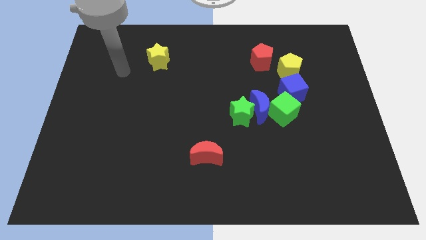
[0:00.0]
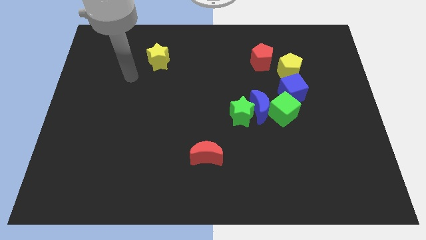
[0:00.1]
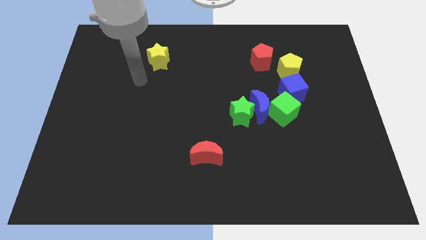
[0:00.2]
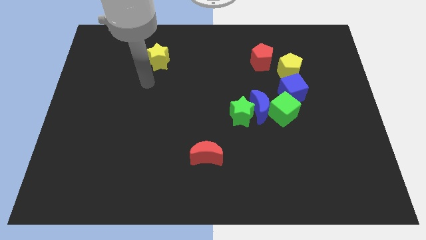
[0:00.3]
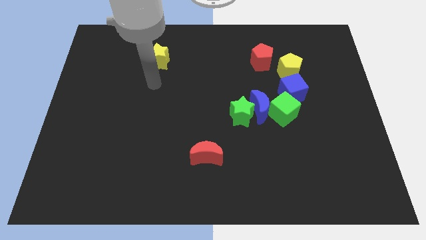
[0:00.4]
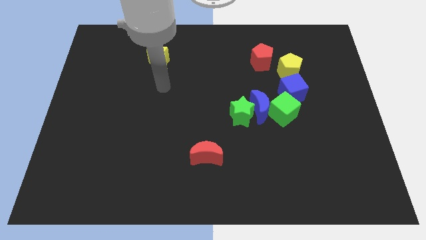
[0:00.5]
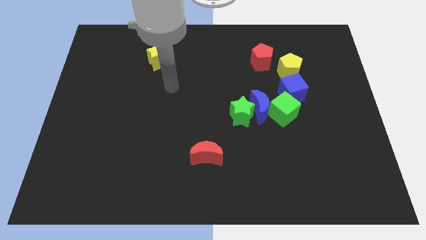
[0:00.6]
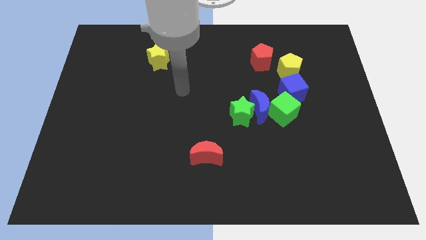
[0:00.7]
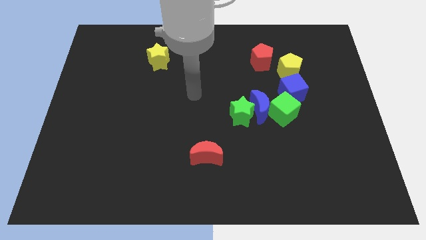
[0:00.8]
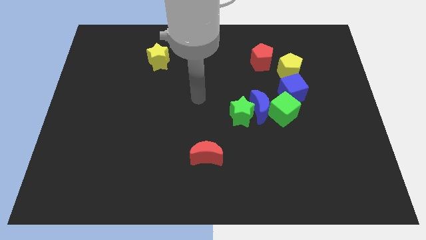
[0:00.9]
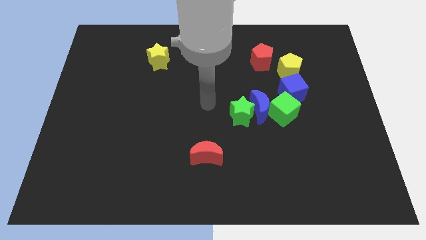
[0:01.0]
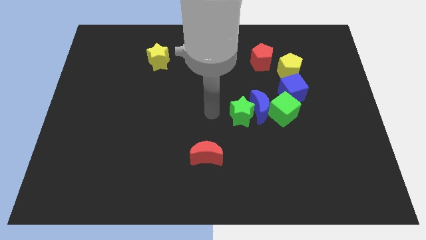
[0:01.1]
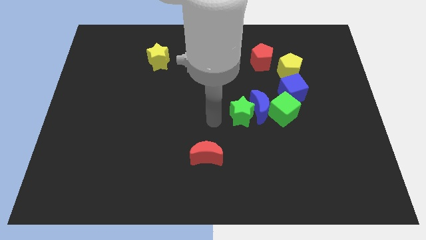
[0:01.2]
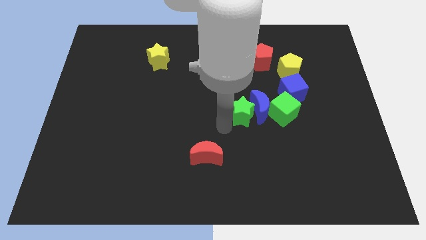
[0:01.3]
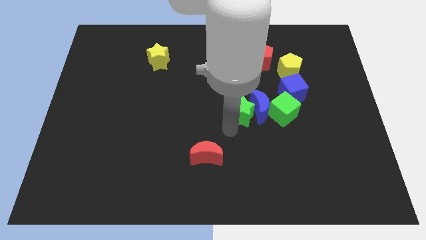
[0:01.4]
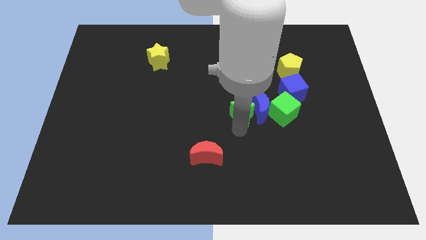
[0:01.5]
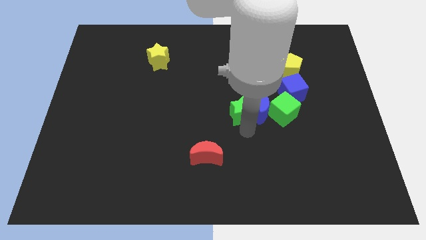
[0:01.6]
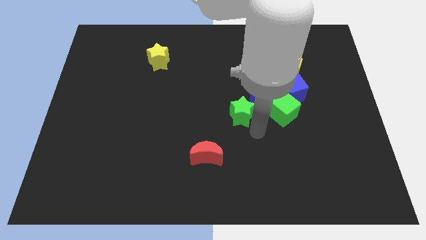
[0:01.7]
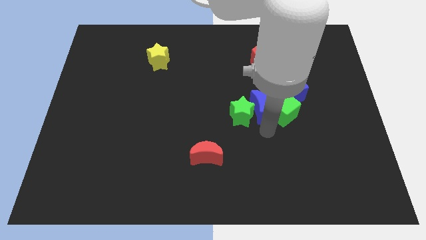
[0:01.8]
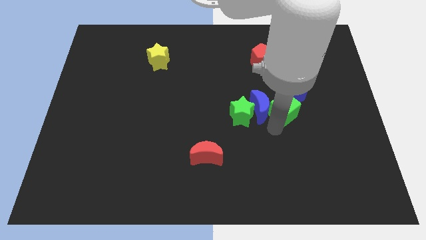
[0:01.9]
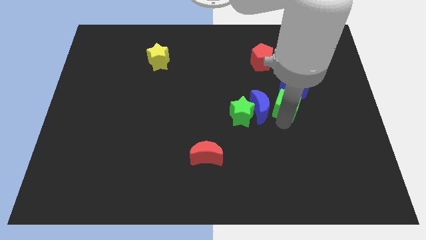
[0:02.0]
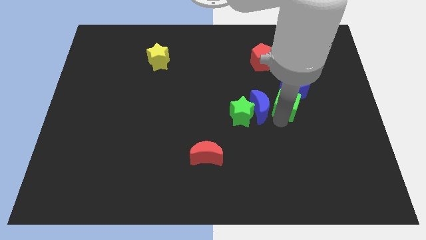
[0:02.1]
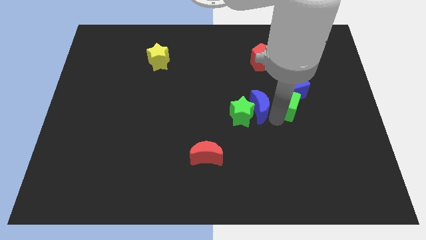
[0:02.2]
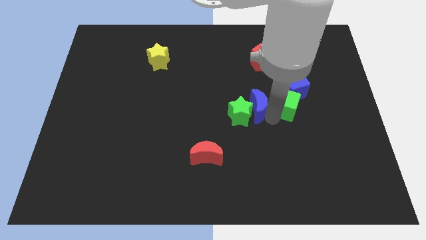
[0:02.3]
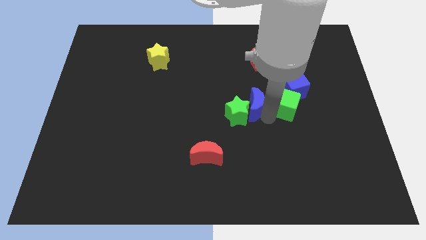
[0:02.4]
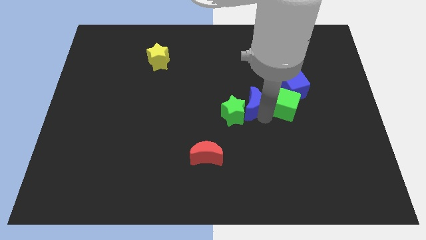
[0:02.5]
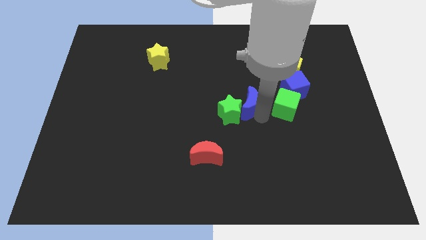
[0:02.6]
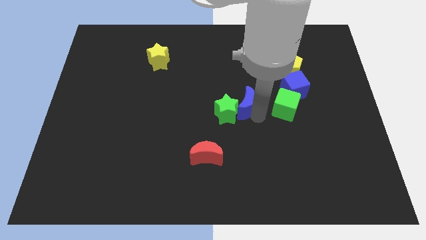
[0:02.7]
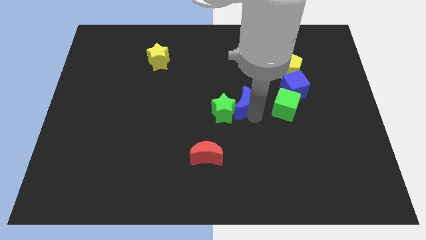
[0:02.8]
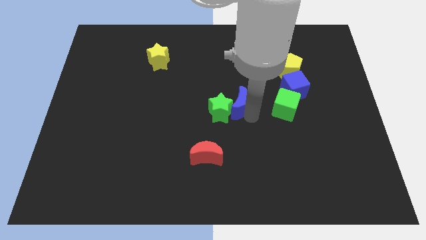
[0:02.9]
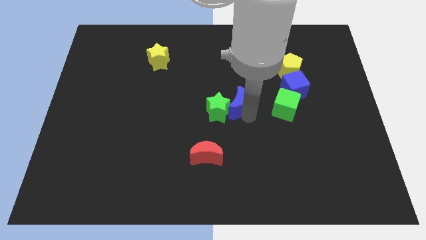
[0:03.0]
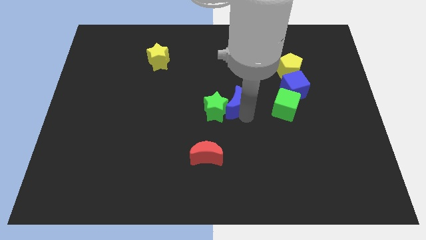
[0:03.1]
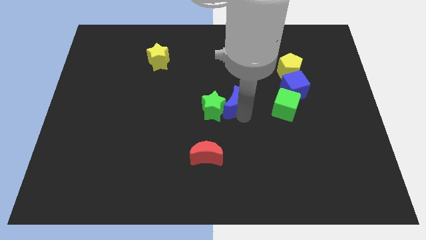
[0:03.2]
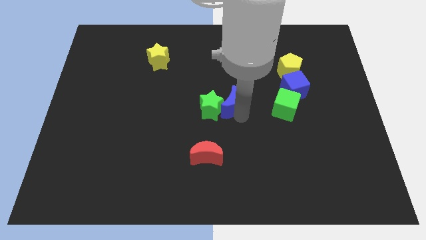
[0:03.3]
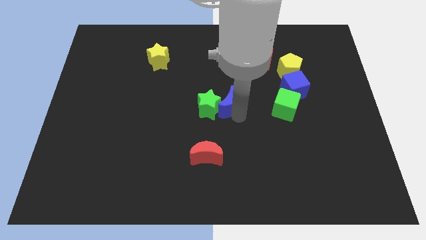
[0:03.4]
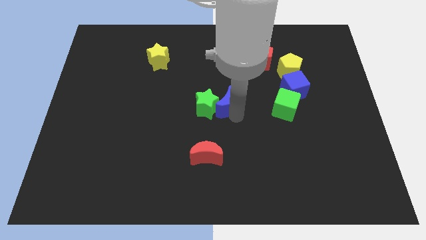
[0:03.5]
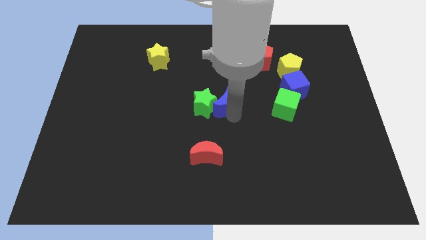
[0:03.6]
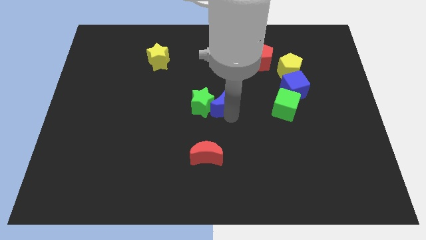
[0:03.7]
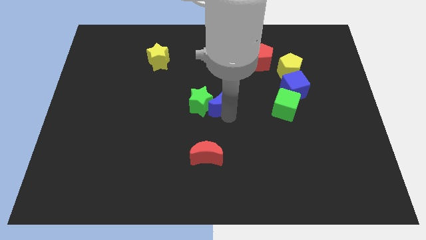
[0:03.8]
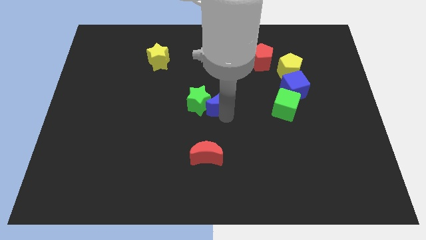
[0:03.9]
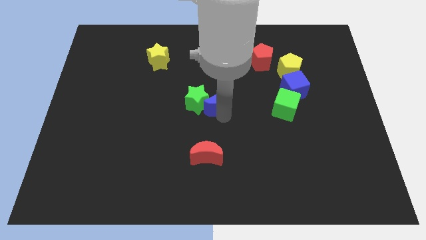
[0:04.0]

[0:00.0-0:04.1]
move the blue moon away from the group of blocks

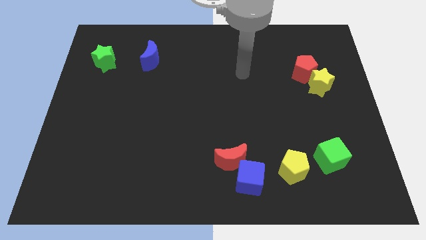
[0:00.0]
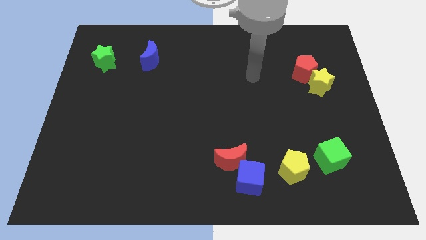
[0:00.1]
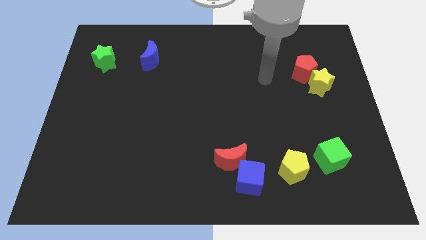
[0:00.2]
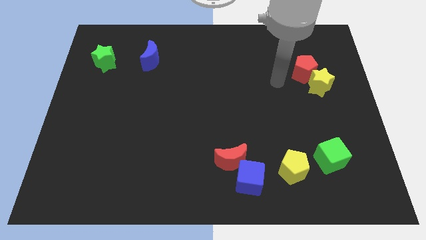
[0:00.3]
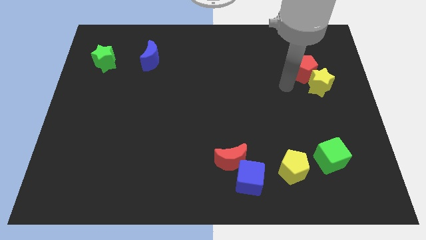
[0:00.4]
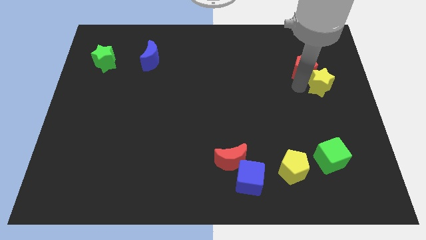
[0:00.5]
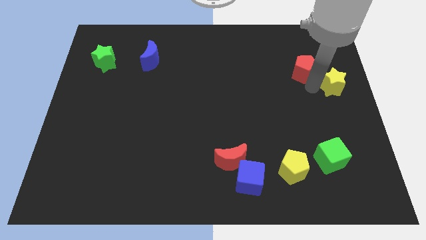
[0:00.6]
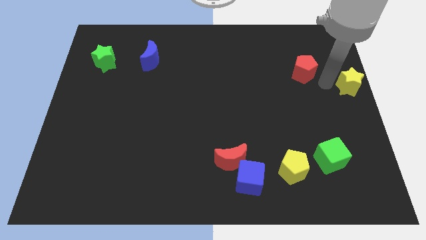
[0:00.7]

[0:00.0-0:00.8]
move the red pentagon away from the yellow star

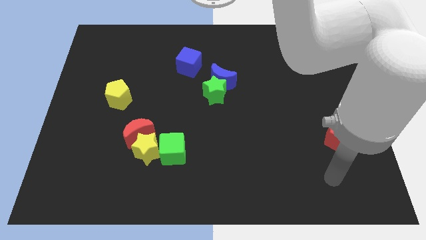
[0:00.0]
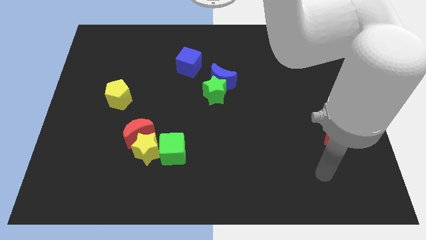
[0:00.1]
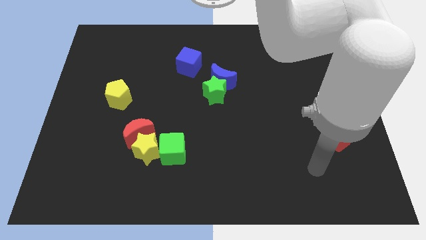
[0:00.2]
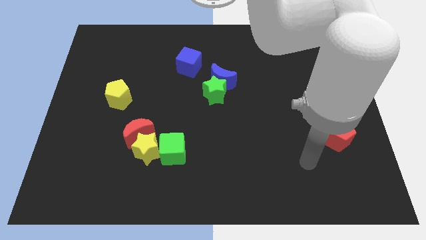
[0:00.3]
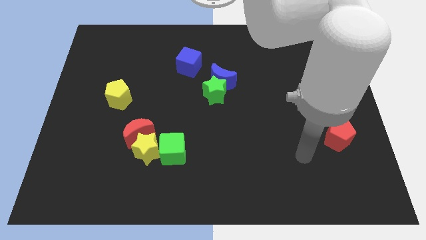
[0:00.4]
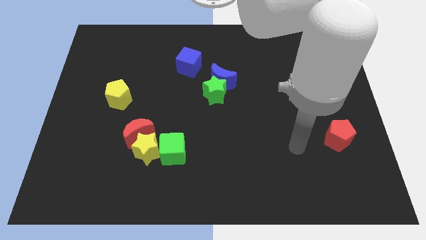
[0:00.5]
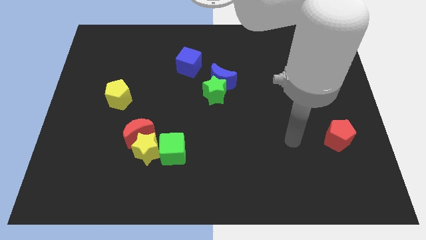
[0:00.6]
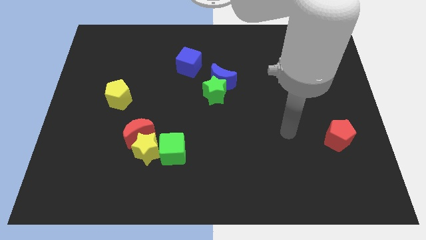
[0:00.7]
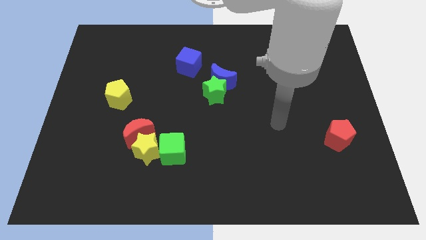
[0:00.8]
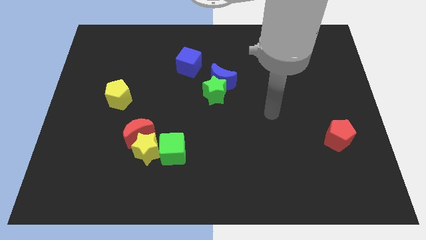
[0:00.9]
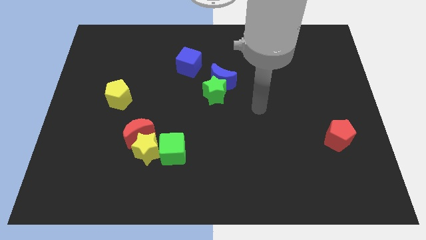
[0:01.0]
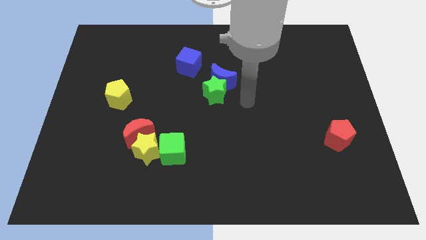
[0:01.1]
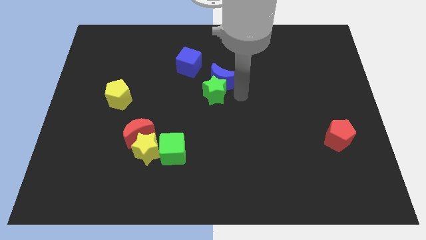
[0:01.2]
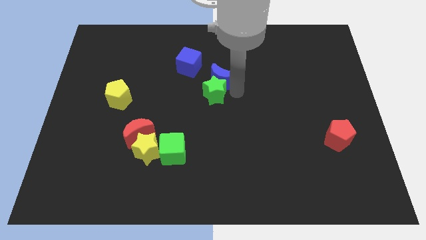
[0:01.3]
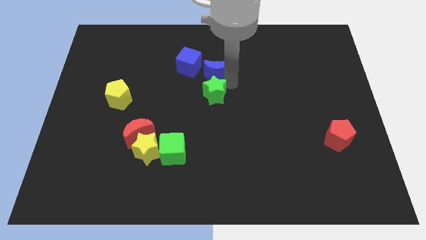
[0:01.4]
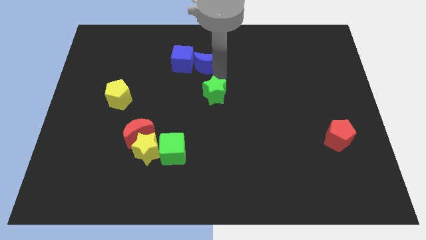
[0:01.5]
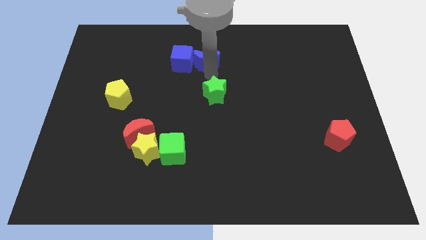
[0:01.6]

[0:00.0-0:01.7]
separate the green star from the blue moon

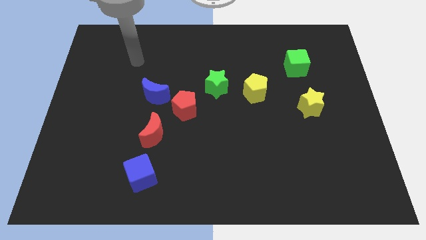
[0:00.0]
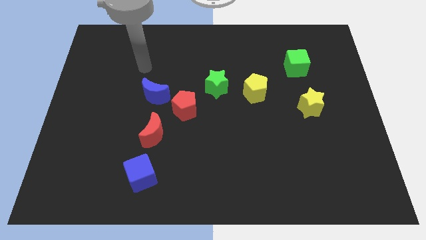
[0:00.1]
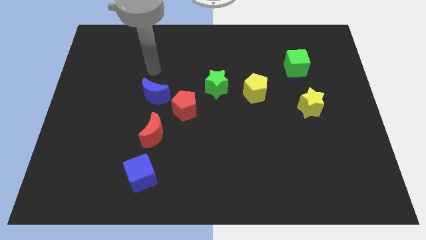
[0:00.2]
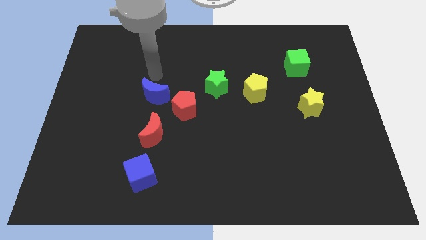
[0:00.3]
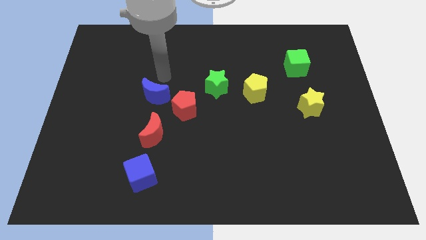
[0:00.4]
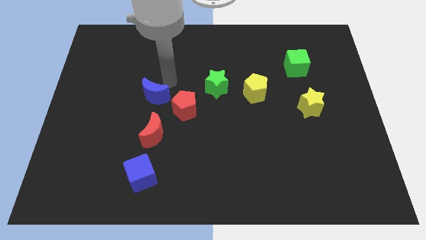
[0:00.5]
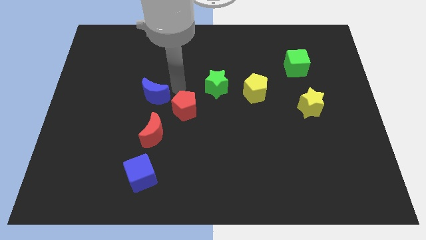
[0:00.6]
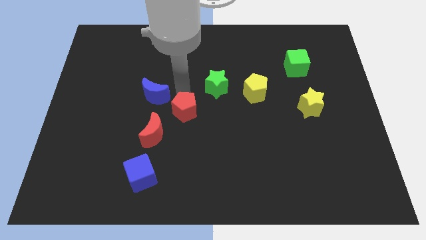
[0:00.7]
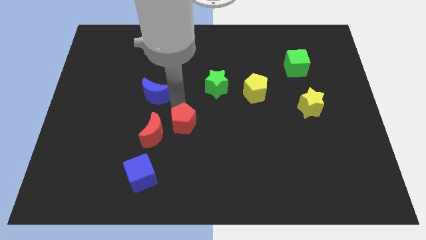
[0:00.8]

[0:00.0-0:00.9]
separate the blue moon from the red pentagon

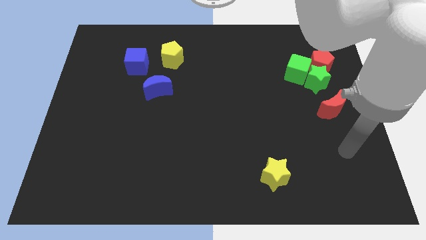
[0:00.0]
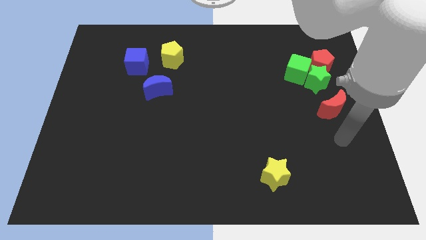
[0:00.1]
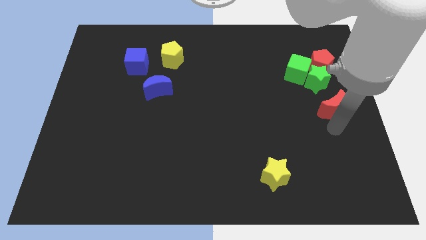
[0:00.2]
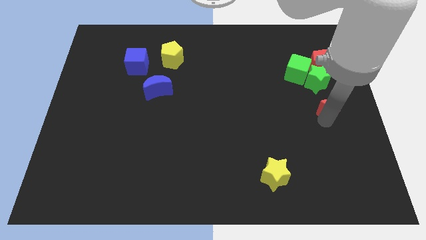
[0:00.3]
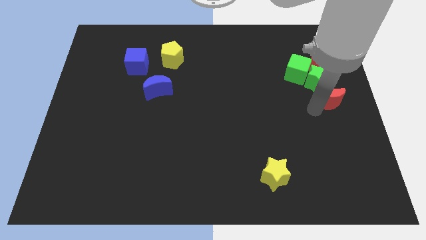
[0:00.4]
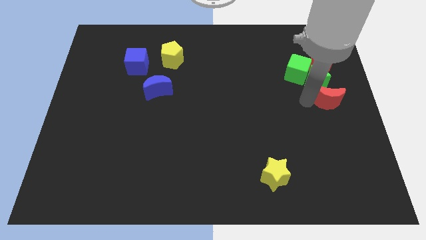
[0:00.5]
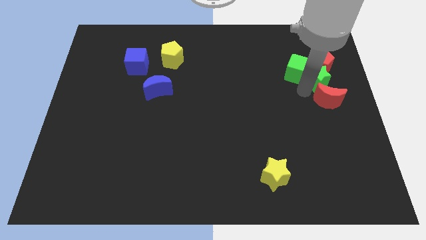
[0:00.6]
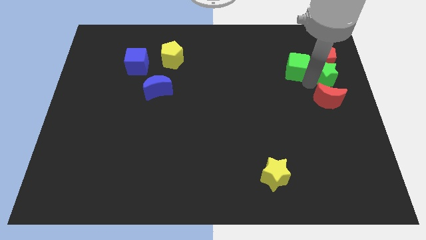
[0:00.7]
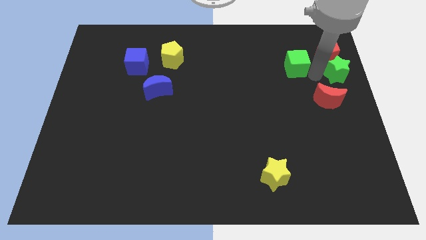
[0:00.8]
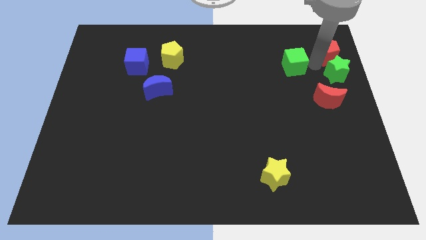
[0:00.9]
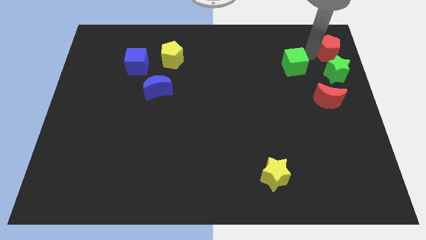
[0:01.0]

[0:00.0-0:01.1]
move the green cube away from the green star and red pentagon

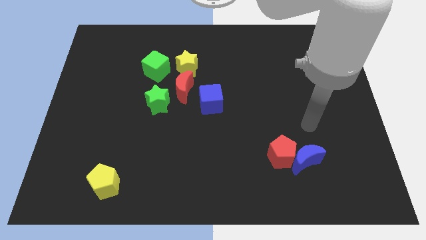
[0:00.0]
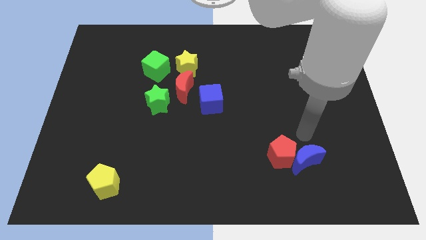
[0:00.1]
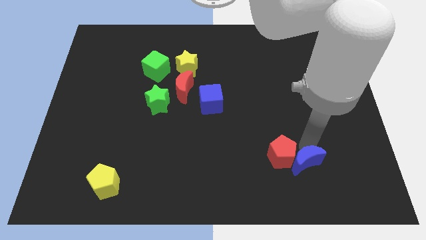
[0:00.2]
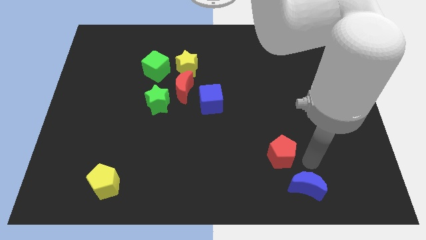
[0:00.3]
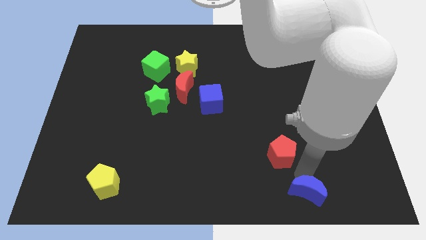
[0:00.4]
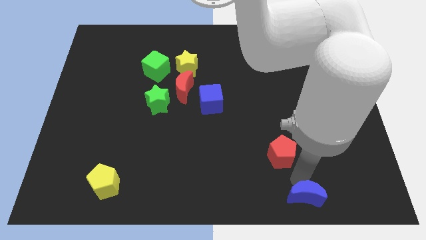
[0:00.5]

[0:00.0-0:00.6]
pull the red pentagon apart from the blue moon
